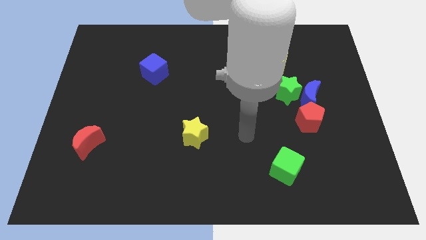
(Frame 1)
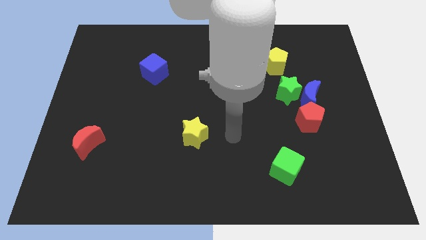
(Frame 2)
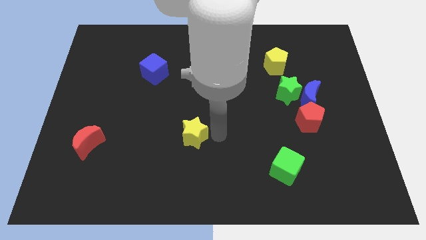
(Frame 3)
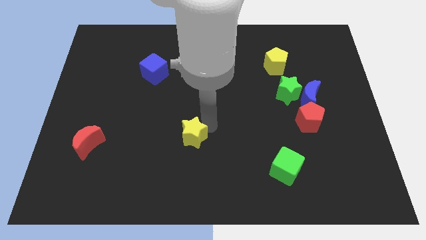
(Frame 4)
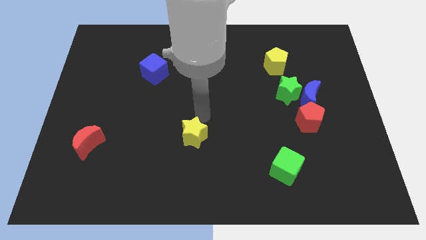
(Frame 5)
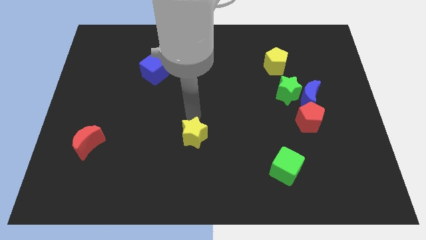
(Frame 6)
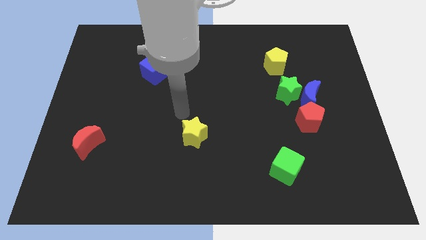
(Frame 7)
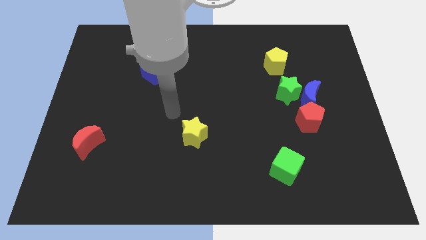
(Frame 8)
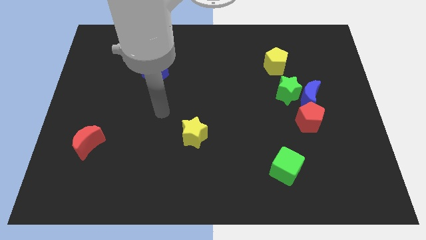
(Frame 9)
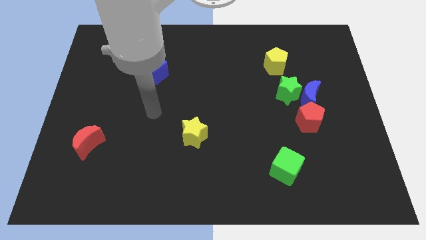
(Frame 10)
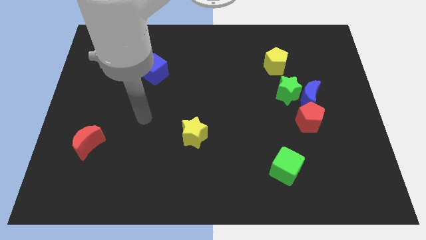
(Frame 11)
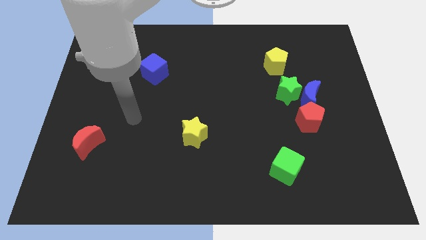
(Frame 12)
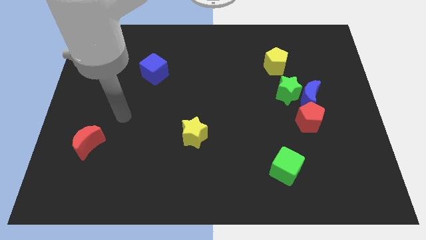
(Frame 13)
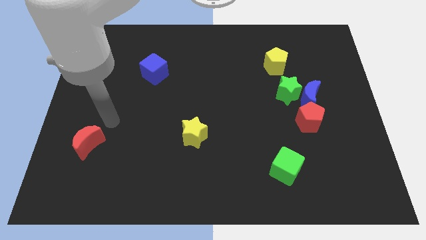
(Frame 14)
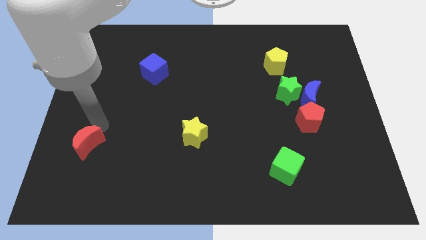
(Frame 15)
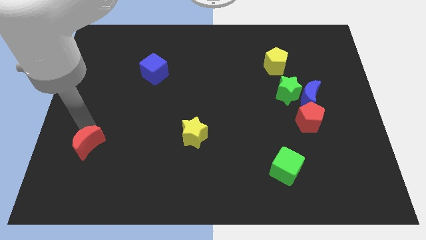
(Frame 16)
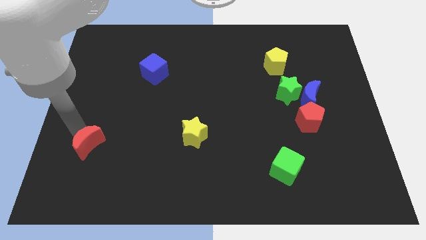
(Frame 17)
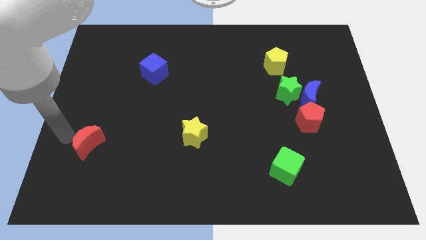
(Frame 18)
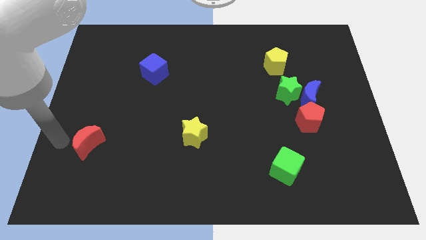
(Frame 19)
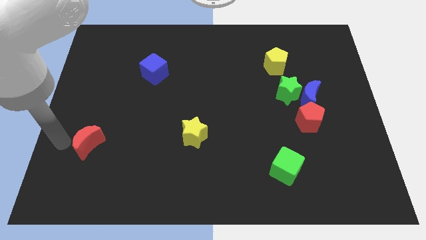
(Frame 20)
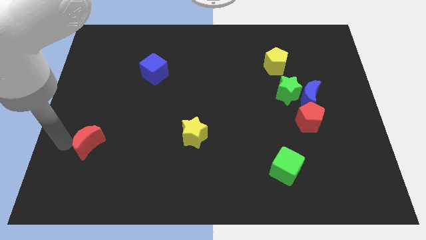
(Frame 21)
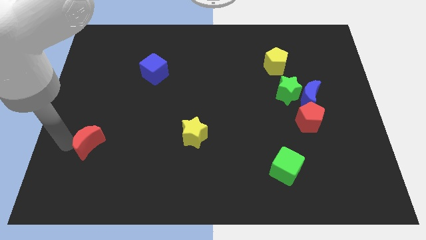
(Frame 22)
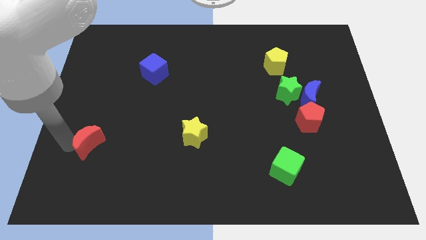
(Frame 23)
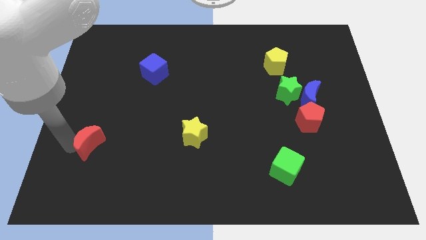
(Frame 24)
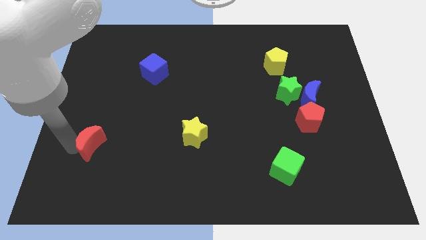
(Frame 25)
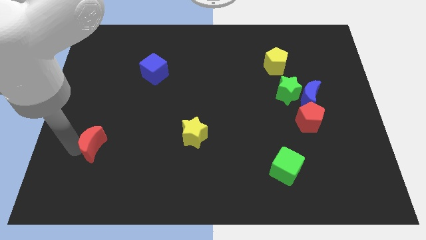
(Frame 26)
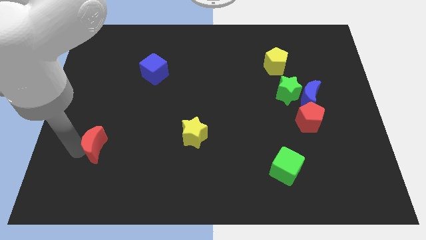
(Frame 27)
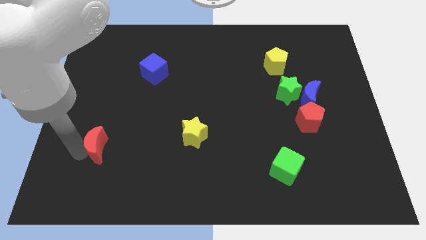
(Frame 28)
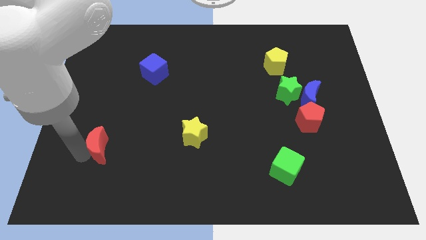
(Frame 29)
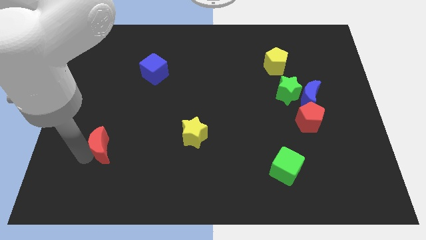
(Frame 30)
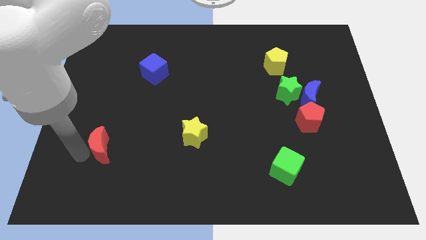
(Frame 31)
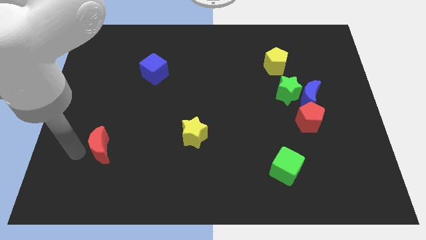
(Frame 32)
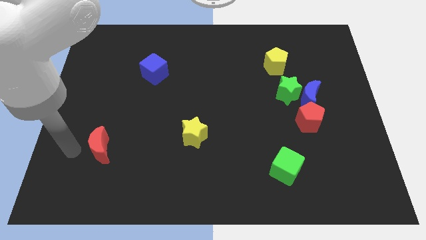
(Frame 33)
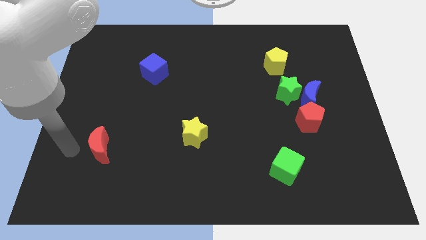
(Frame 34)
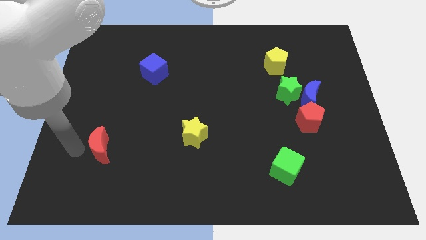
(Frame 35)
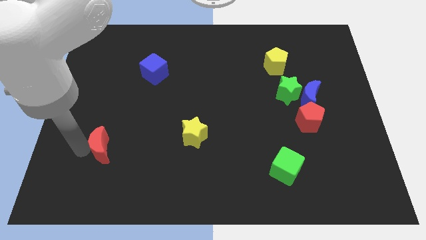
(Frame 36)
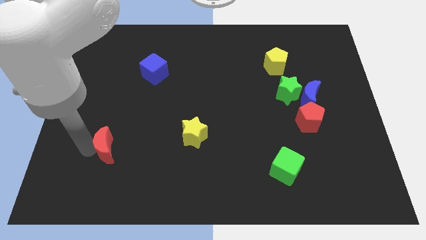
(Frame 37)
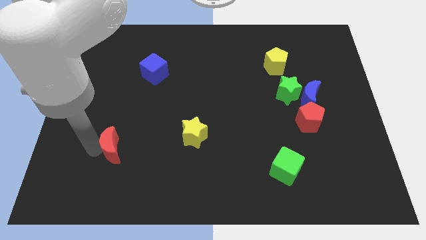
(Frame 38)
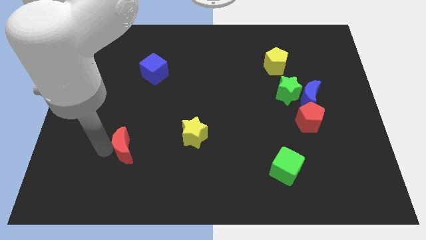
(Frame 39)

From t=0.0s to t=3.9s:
slightly slide the red moon to the right

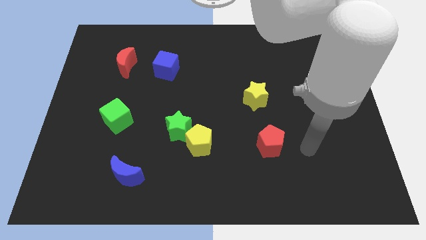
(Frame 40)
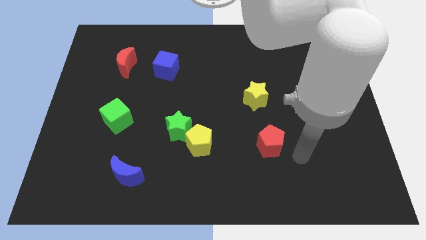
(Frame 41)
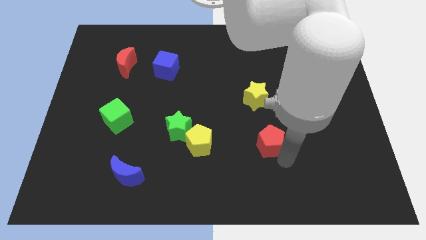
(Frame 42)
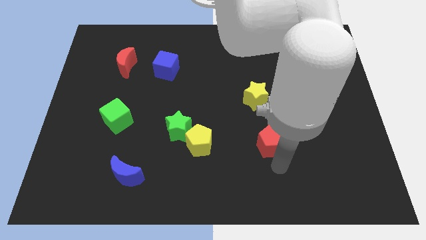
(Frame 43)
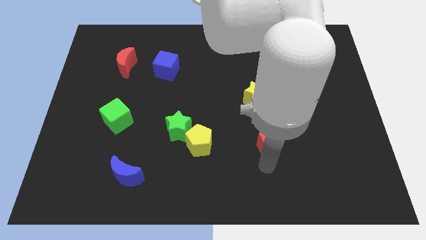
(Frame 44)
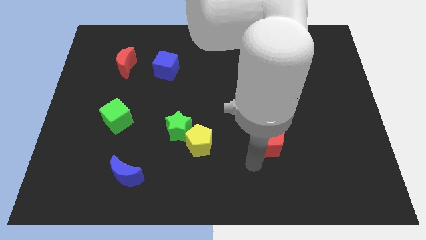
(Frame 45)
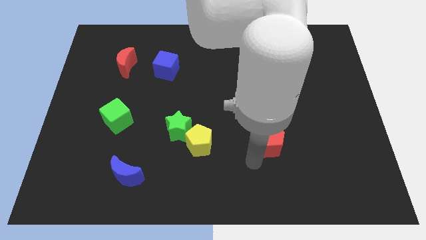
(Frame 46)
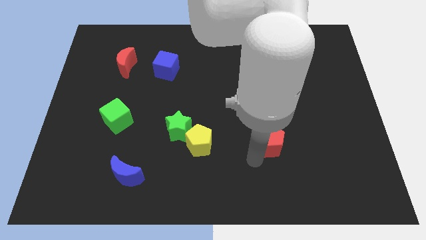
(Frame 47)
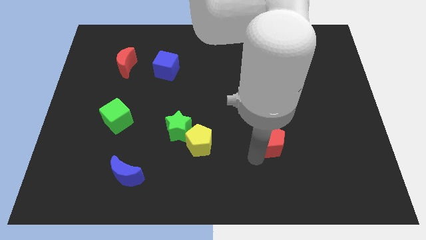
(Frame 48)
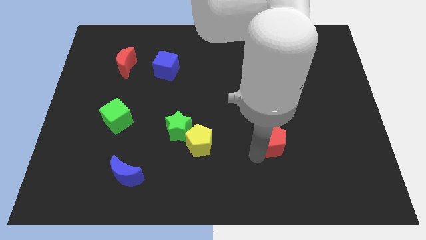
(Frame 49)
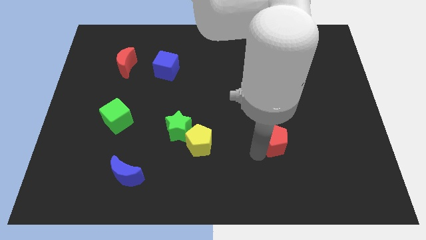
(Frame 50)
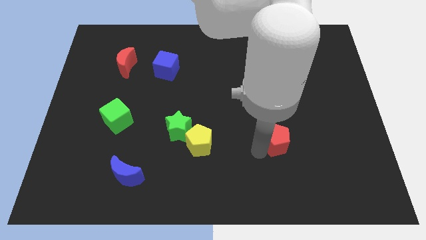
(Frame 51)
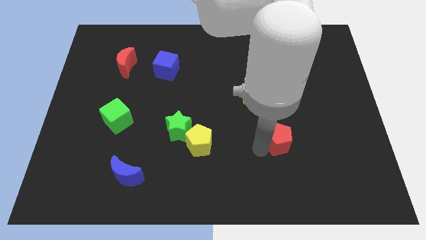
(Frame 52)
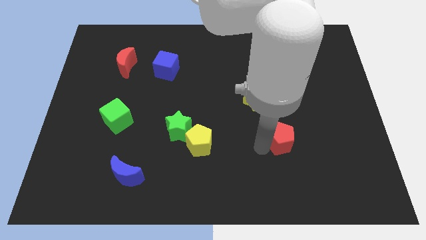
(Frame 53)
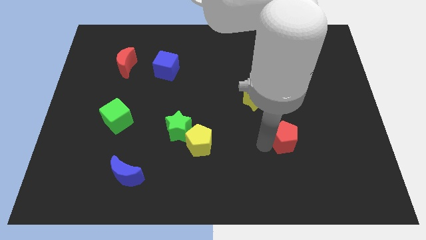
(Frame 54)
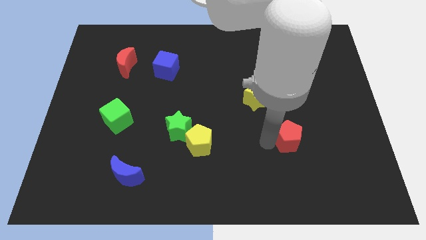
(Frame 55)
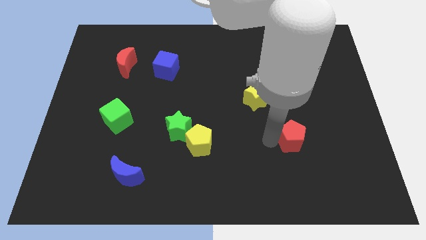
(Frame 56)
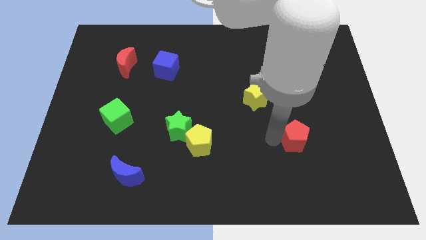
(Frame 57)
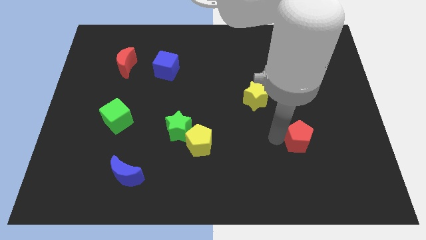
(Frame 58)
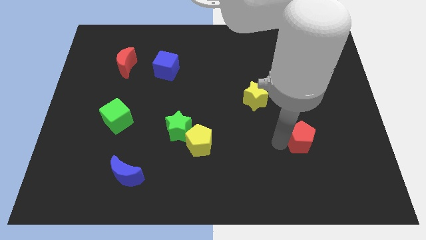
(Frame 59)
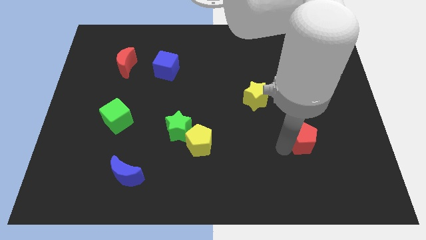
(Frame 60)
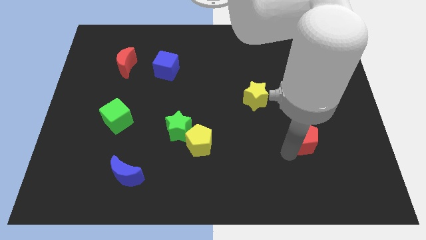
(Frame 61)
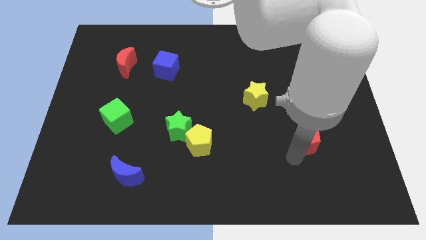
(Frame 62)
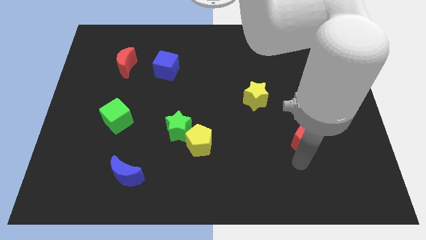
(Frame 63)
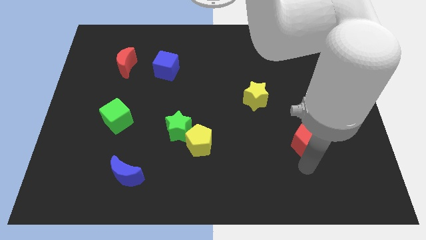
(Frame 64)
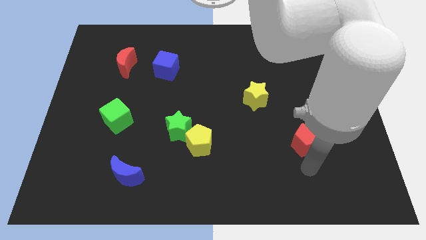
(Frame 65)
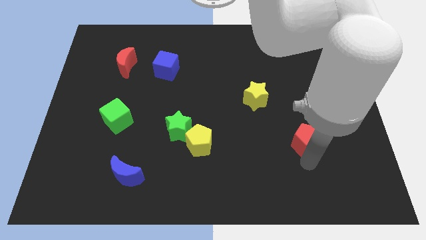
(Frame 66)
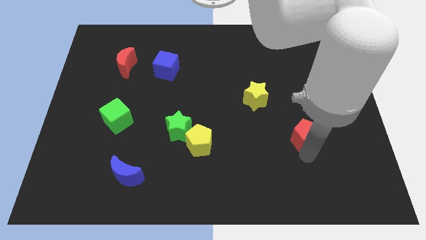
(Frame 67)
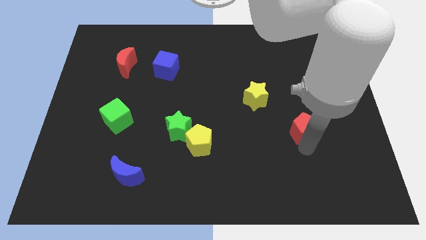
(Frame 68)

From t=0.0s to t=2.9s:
push the red pentagon somewhat up and right

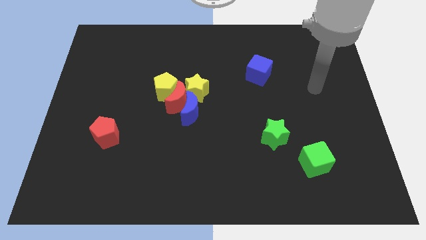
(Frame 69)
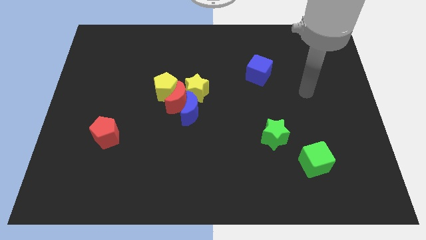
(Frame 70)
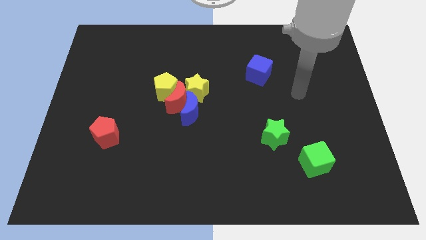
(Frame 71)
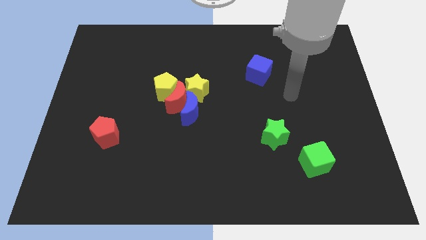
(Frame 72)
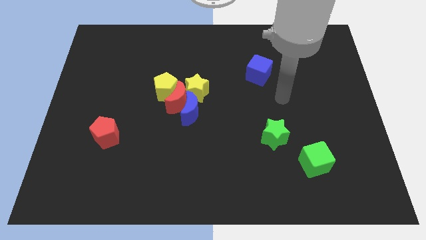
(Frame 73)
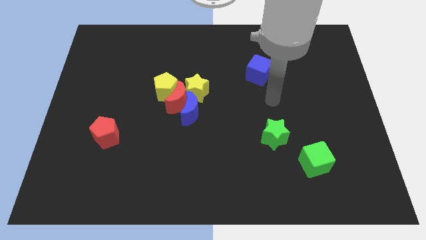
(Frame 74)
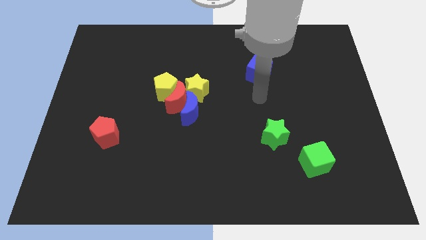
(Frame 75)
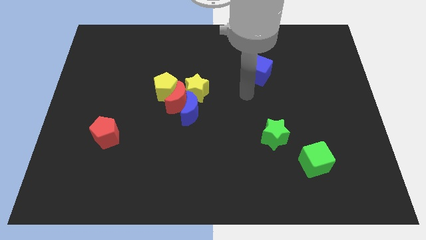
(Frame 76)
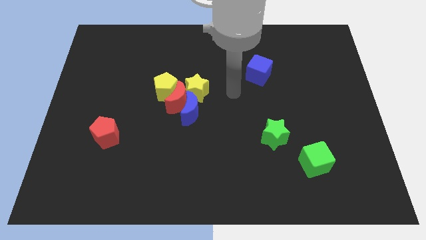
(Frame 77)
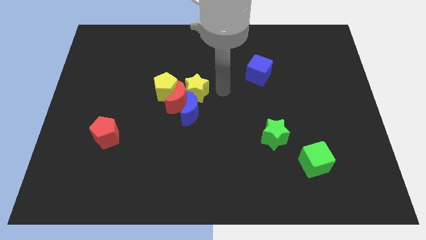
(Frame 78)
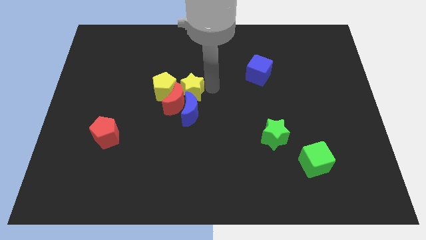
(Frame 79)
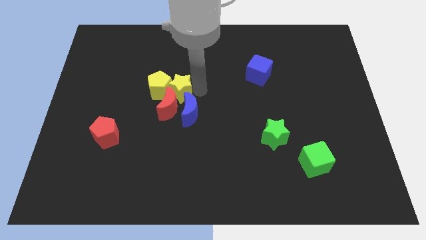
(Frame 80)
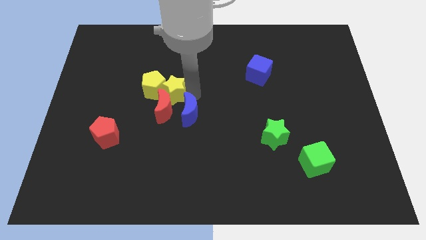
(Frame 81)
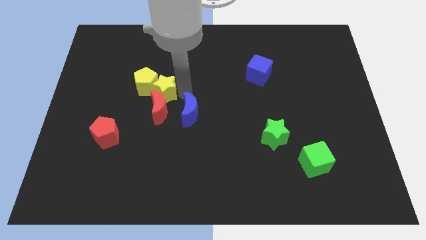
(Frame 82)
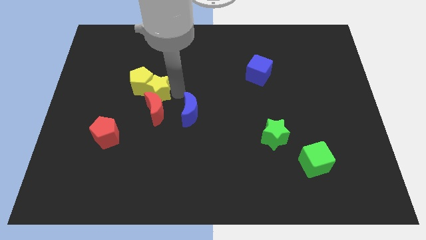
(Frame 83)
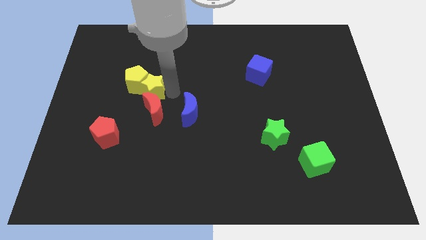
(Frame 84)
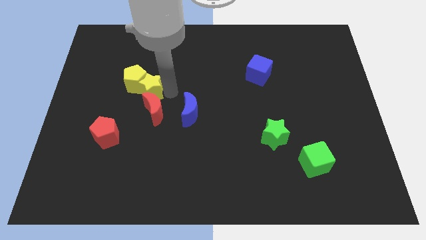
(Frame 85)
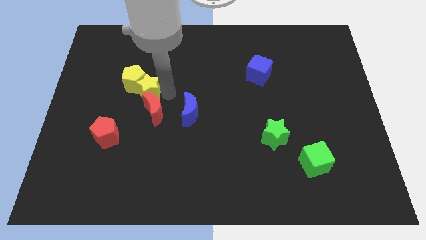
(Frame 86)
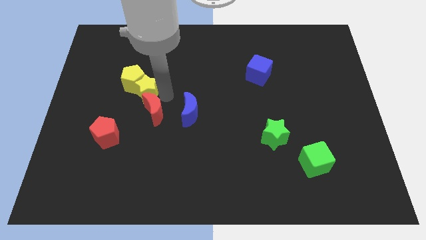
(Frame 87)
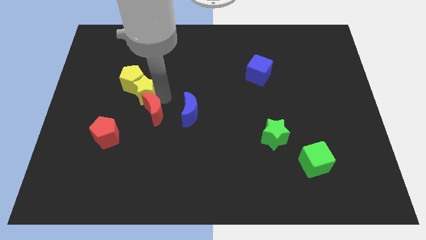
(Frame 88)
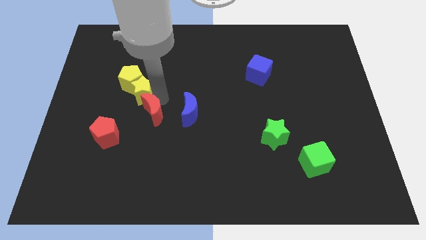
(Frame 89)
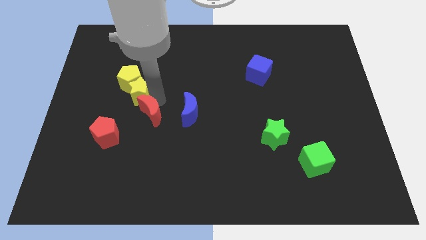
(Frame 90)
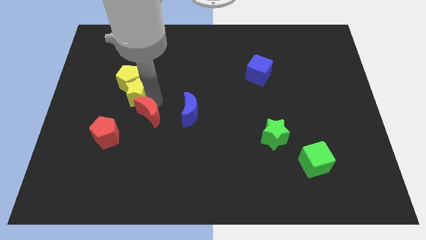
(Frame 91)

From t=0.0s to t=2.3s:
move the red moon down and then left somewhat
